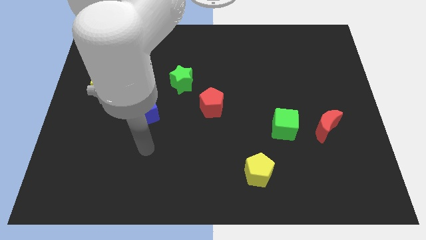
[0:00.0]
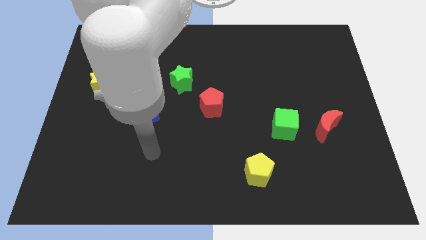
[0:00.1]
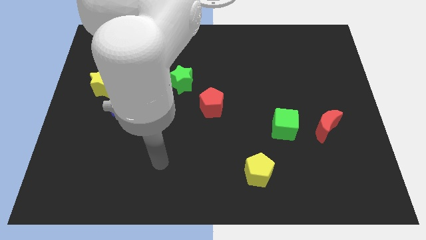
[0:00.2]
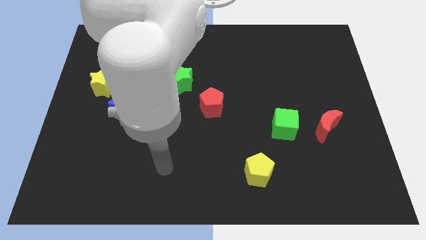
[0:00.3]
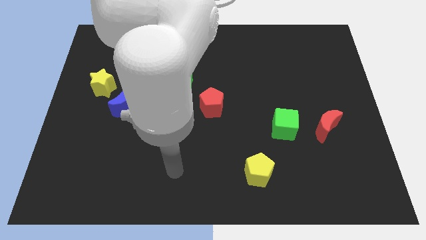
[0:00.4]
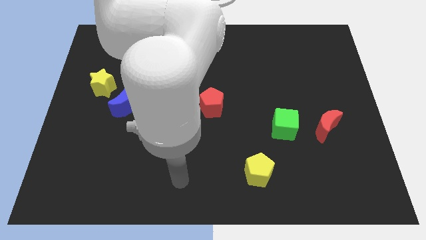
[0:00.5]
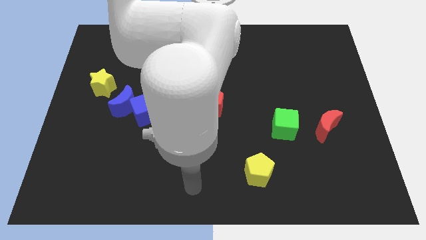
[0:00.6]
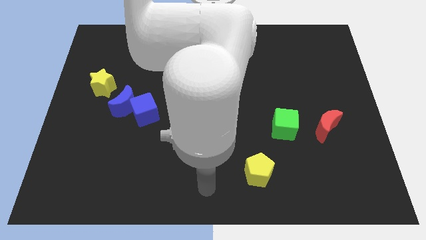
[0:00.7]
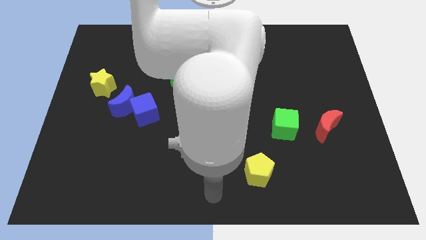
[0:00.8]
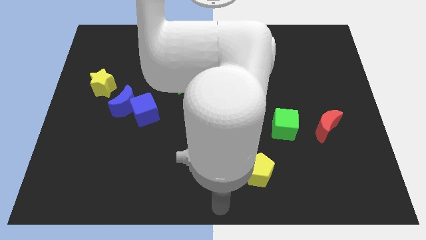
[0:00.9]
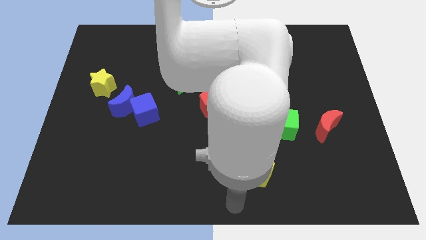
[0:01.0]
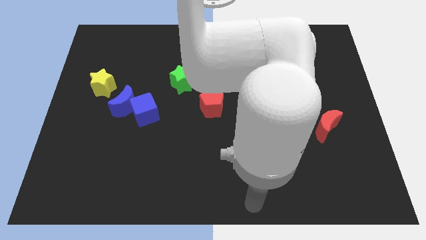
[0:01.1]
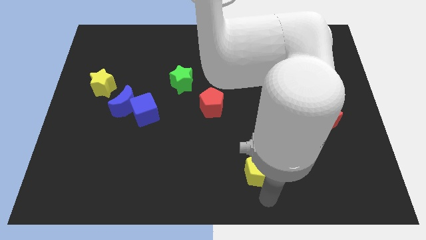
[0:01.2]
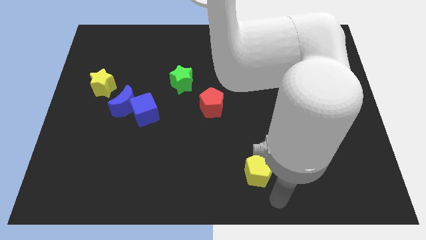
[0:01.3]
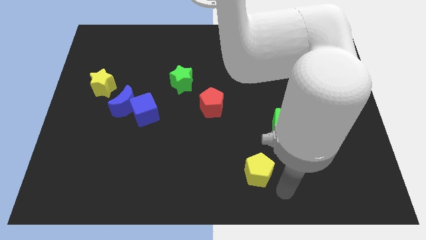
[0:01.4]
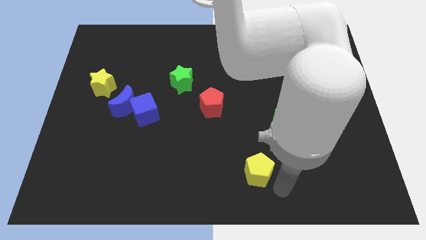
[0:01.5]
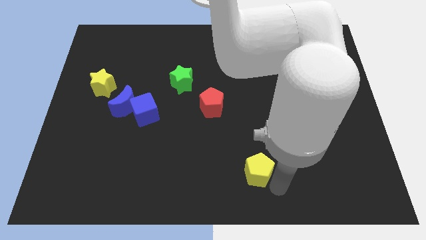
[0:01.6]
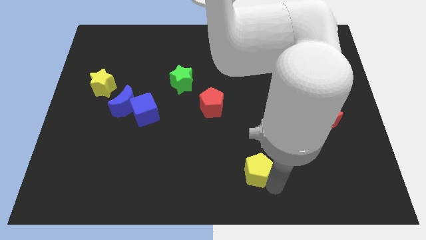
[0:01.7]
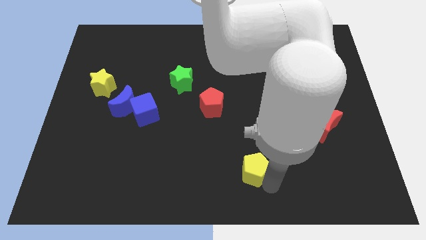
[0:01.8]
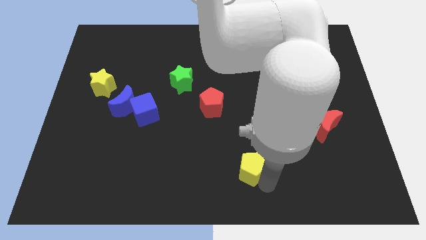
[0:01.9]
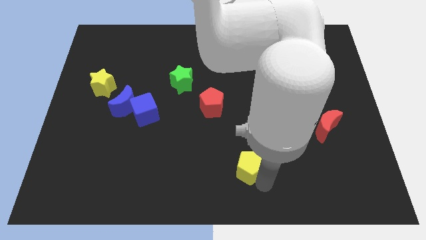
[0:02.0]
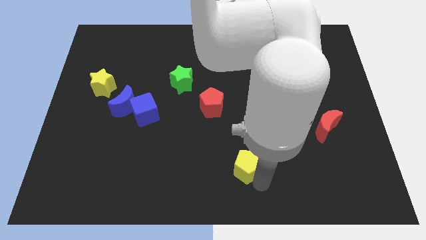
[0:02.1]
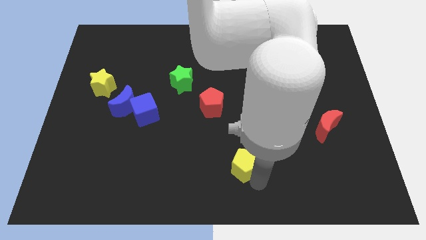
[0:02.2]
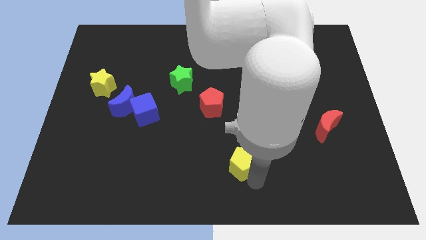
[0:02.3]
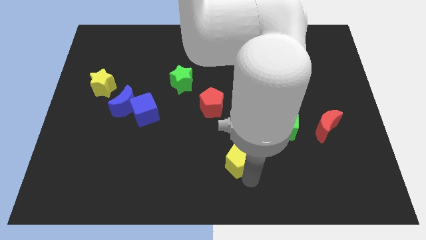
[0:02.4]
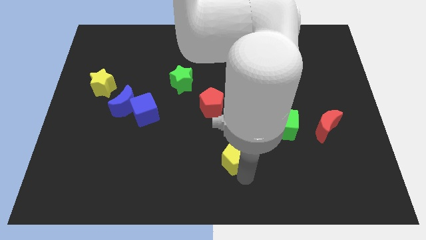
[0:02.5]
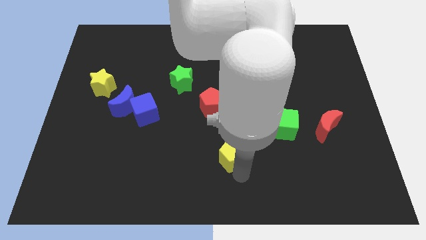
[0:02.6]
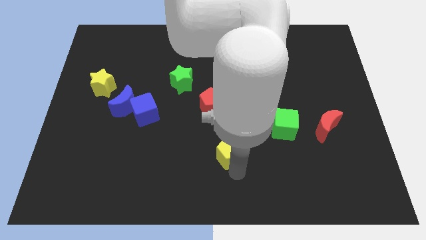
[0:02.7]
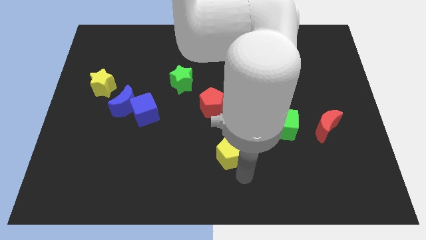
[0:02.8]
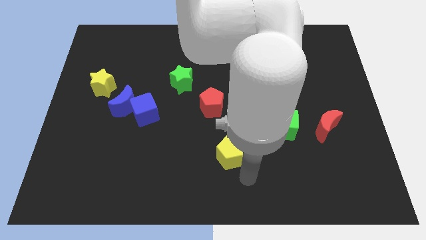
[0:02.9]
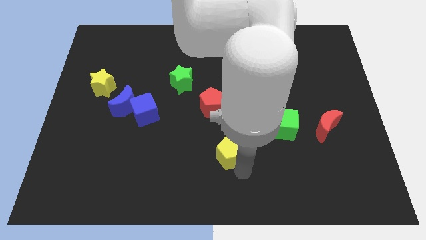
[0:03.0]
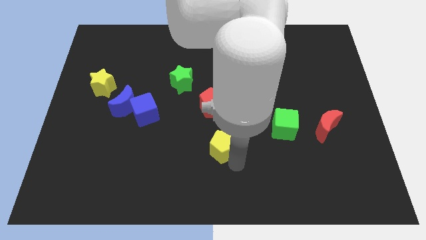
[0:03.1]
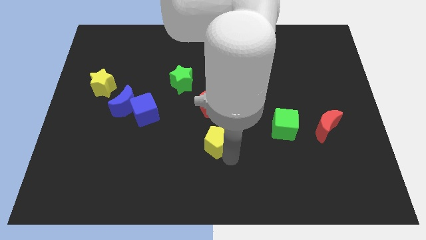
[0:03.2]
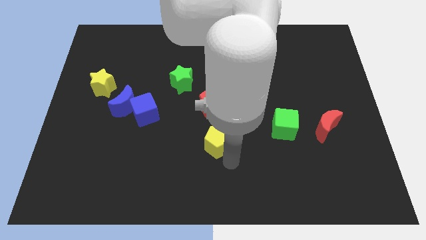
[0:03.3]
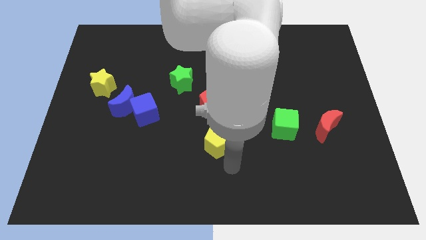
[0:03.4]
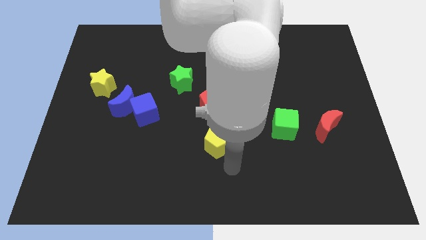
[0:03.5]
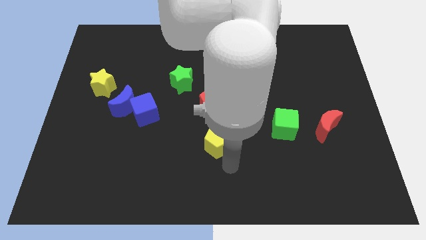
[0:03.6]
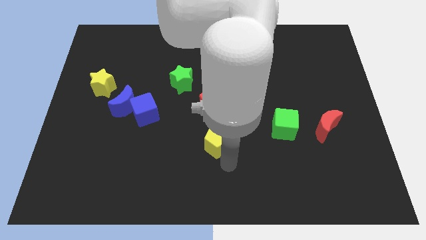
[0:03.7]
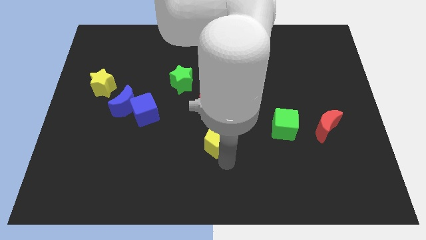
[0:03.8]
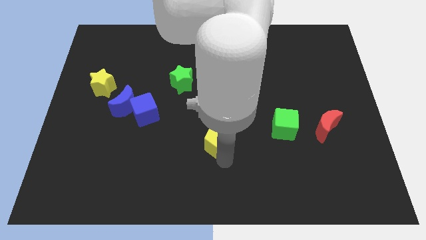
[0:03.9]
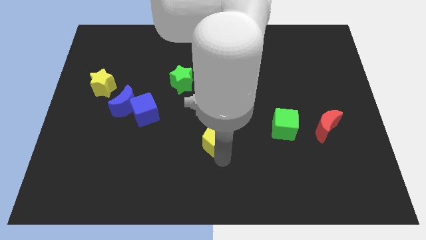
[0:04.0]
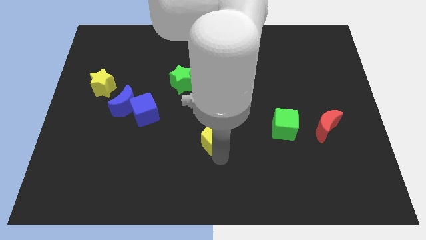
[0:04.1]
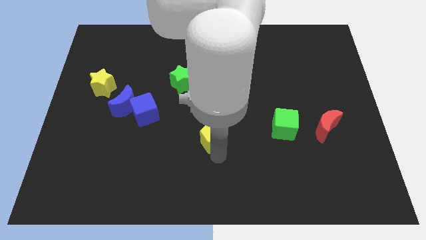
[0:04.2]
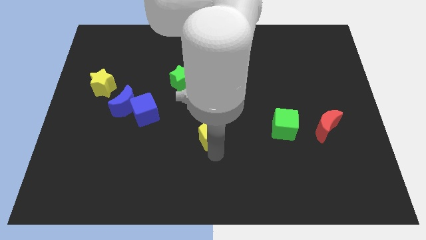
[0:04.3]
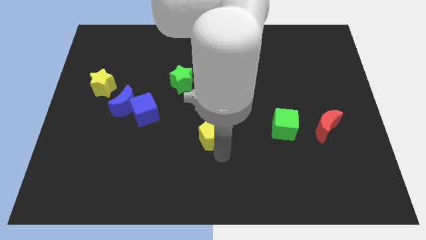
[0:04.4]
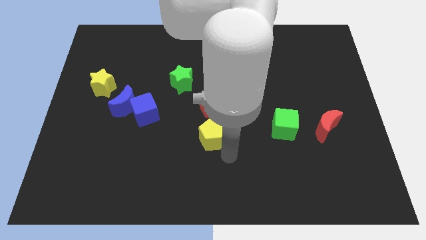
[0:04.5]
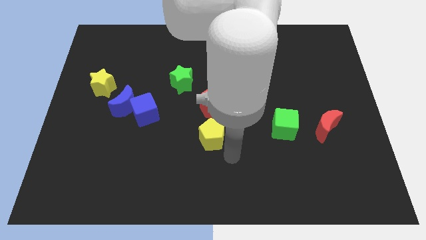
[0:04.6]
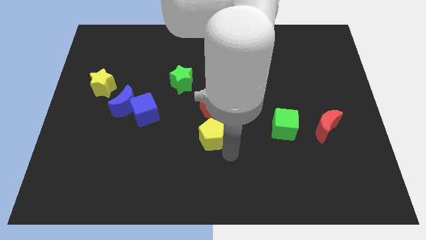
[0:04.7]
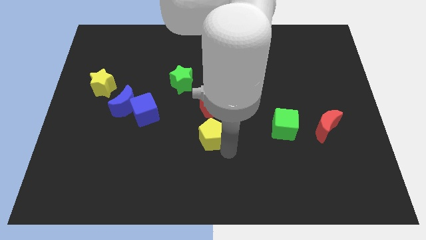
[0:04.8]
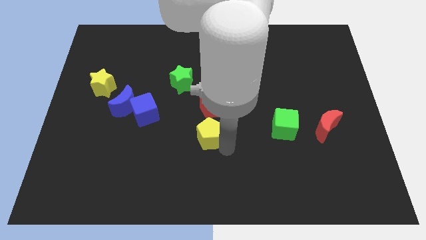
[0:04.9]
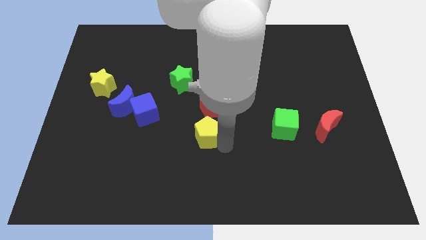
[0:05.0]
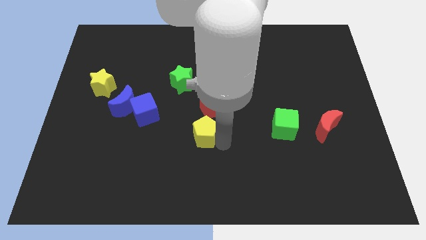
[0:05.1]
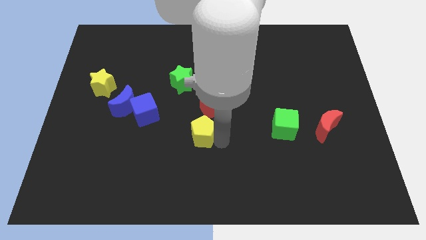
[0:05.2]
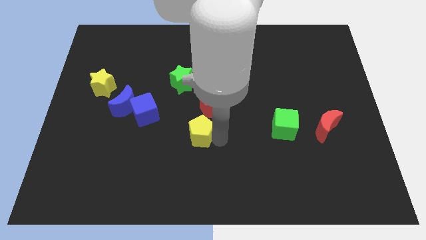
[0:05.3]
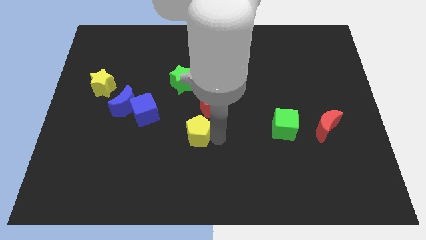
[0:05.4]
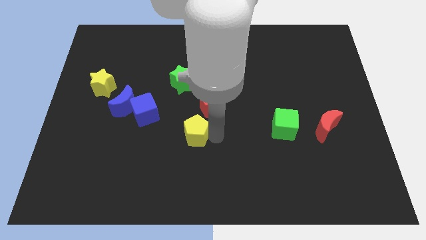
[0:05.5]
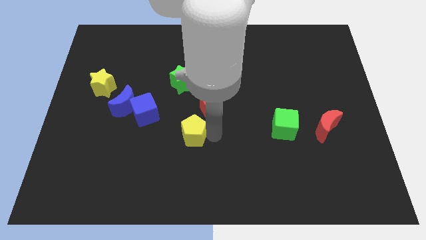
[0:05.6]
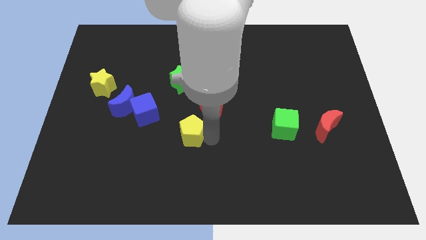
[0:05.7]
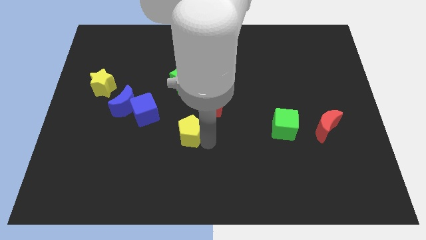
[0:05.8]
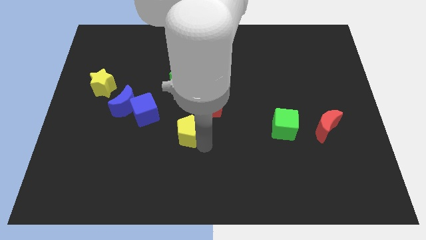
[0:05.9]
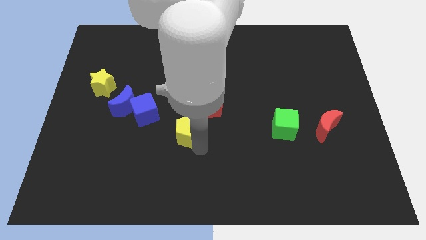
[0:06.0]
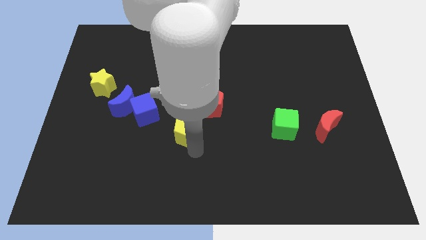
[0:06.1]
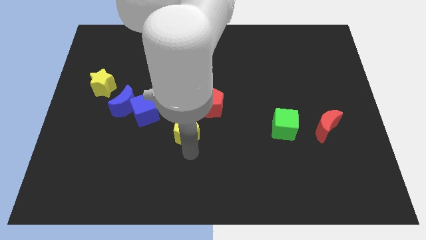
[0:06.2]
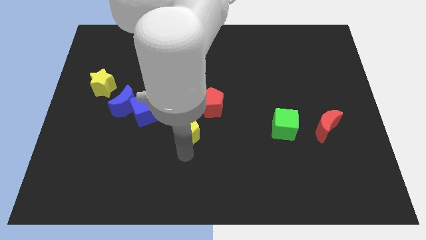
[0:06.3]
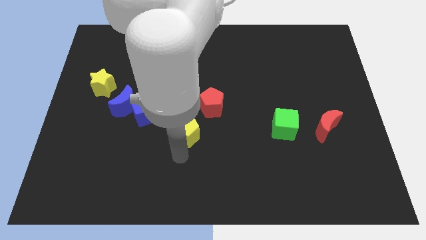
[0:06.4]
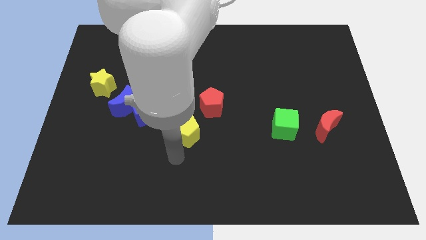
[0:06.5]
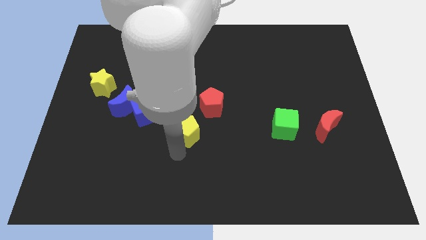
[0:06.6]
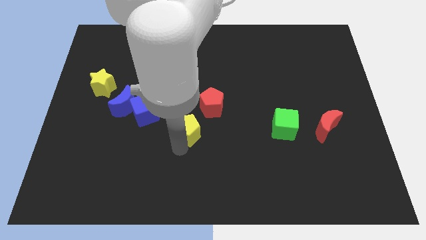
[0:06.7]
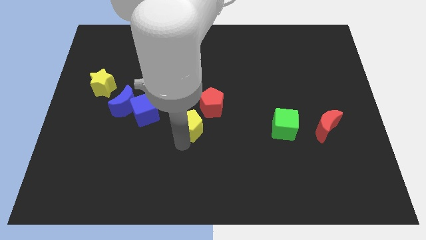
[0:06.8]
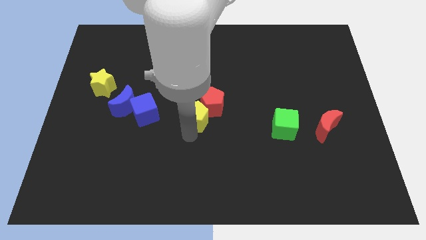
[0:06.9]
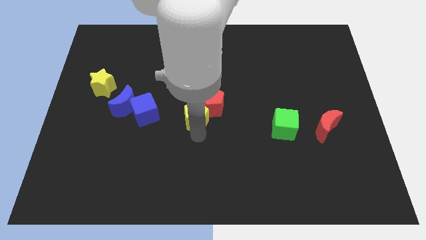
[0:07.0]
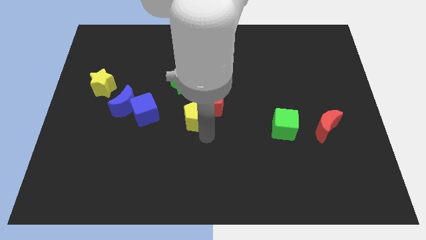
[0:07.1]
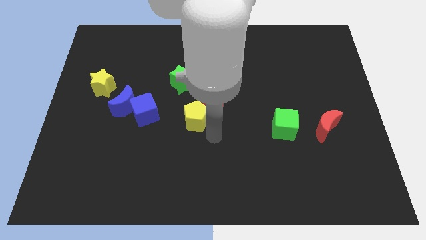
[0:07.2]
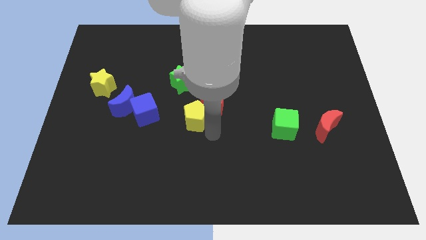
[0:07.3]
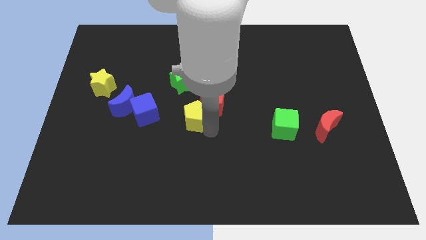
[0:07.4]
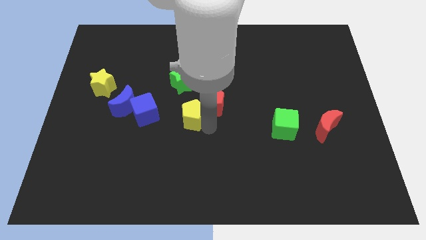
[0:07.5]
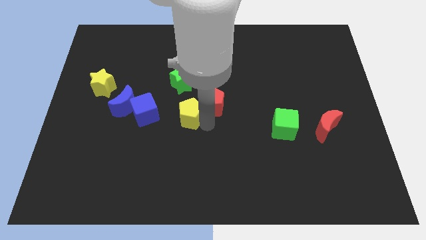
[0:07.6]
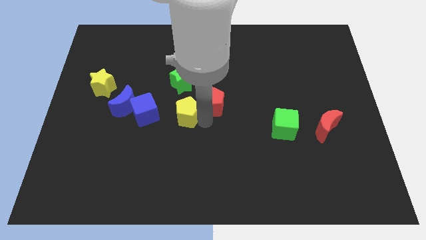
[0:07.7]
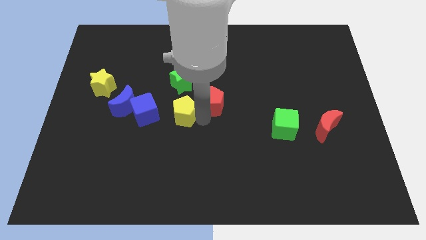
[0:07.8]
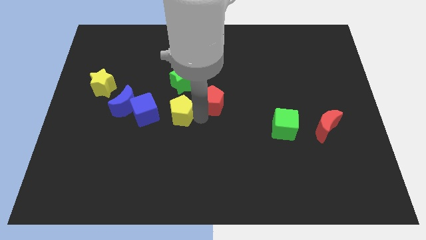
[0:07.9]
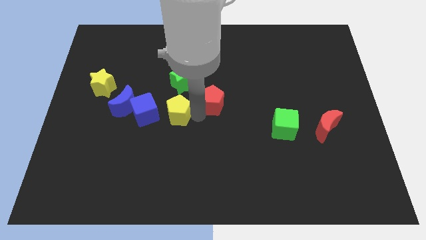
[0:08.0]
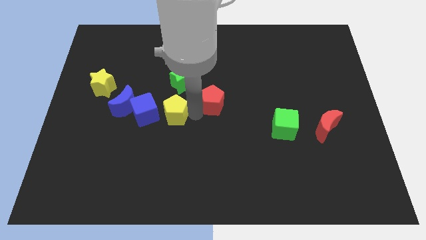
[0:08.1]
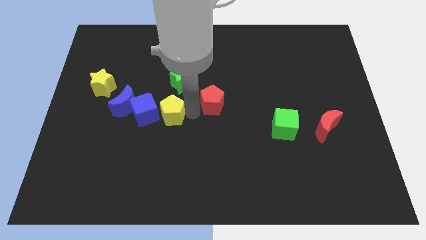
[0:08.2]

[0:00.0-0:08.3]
move the yellow pentagon diagonally up and to the right of the blue cube
